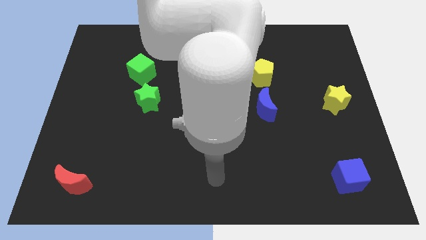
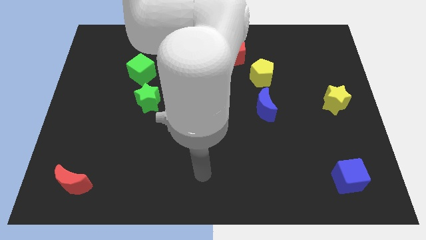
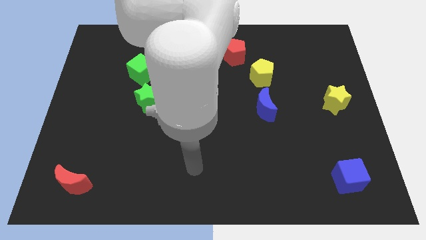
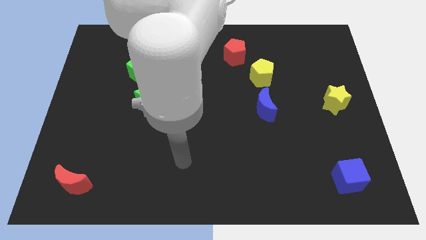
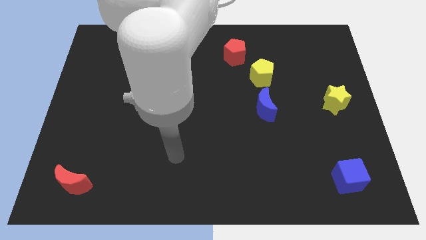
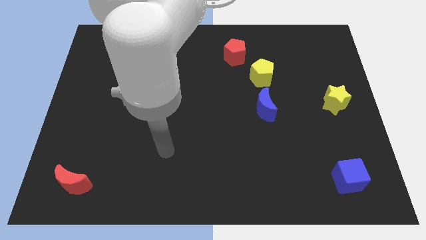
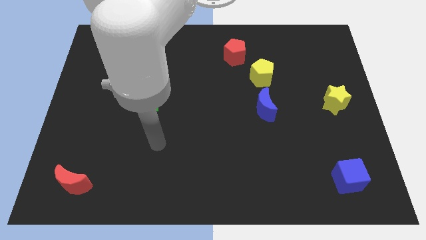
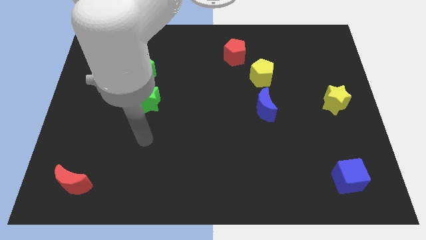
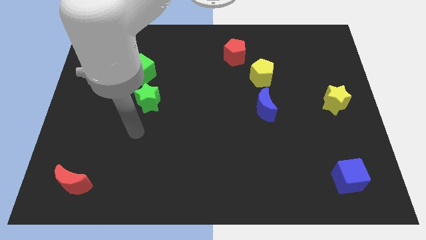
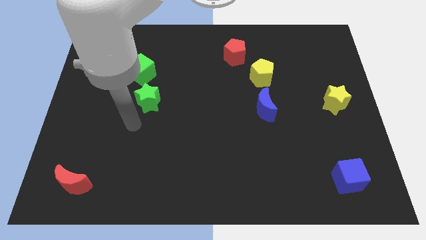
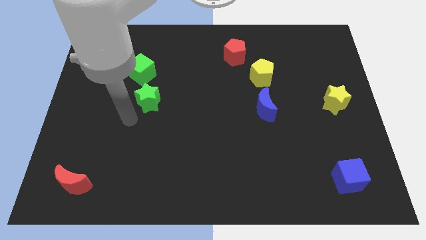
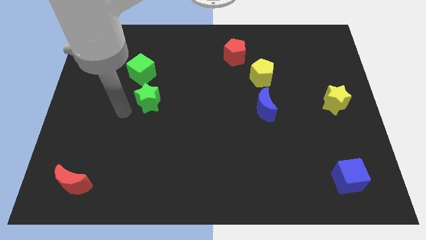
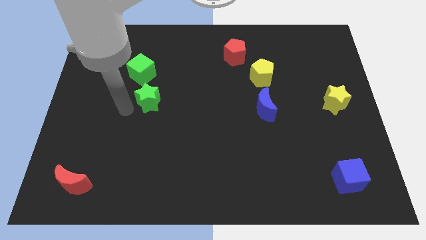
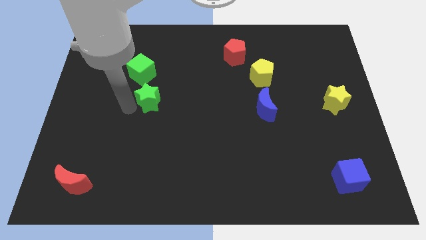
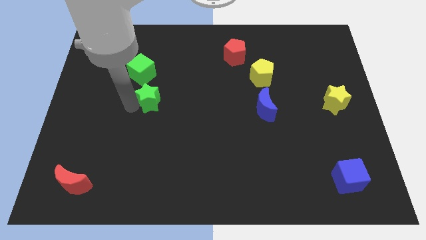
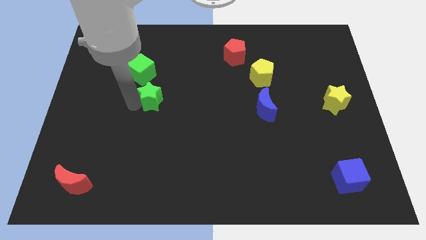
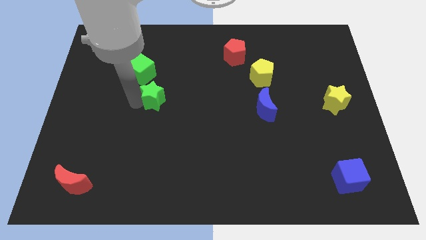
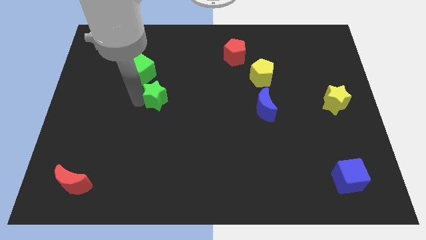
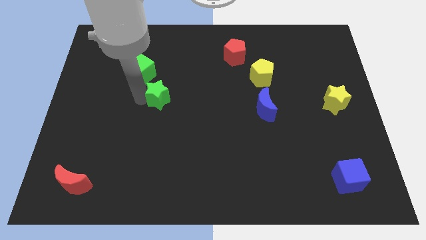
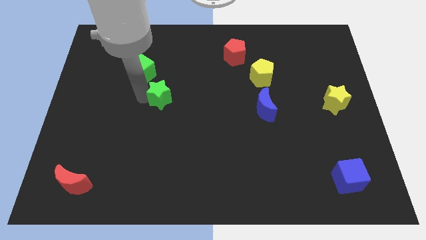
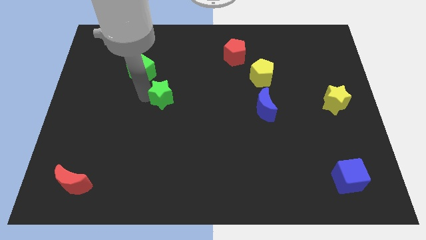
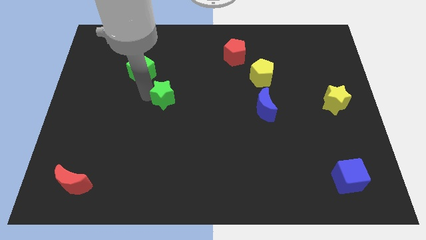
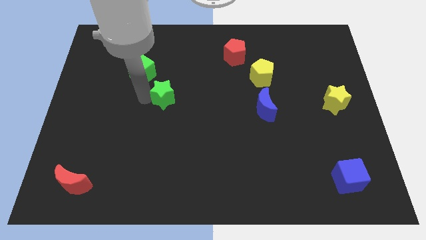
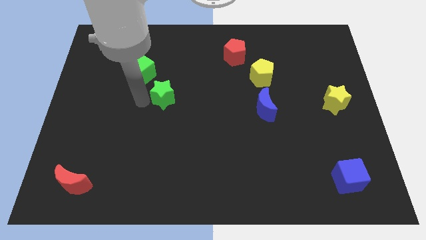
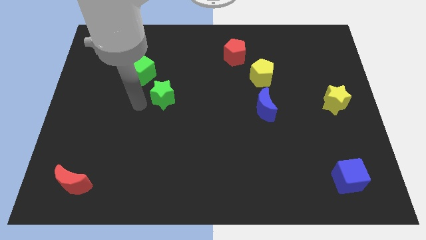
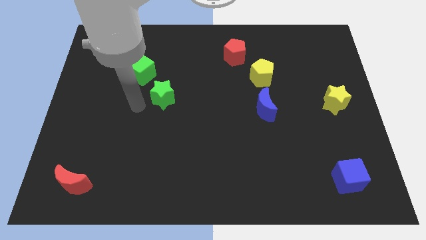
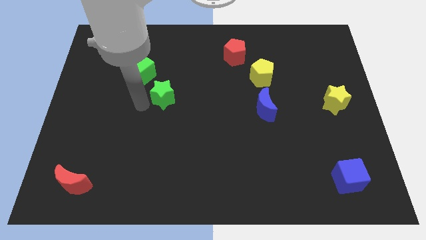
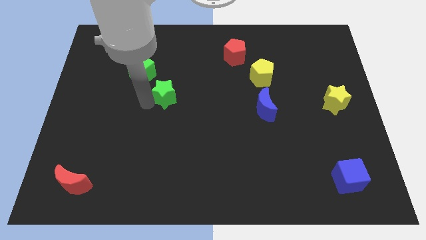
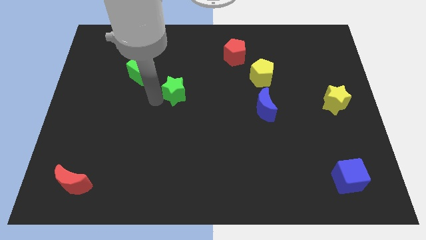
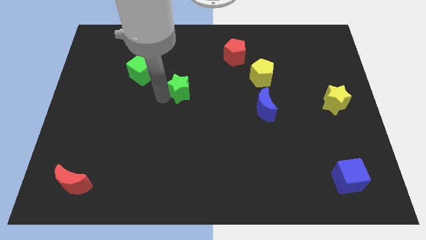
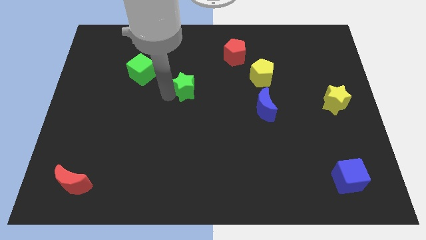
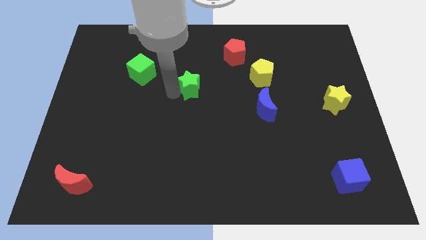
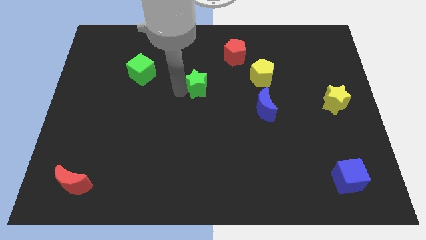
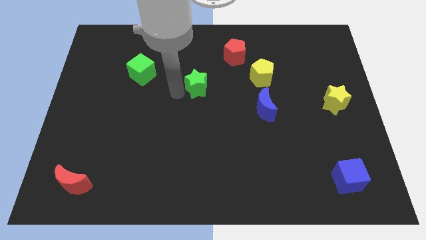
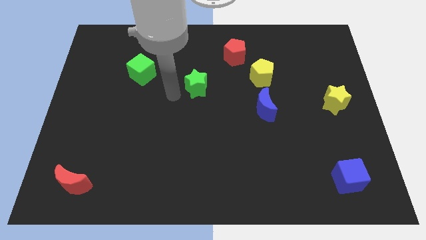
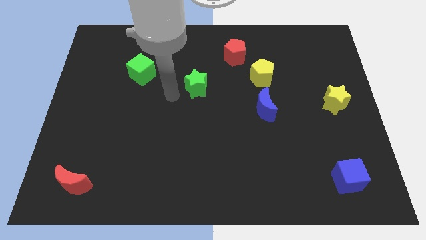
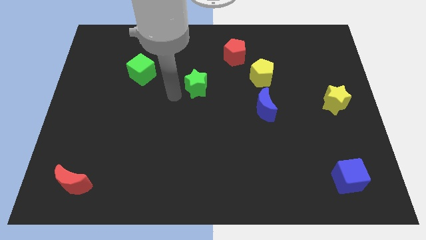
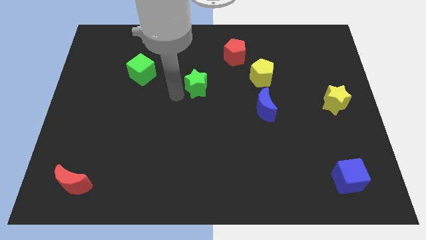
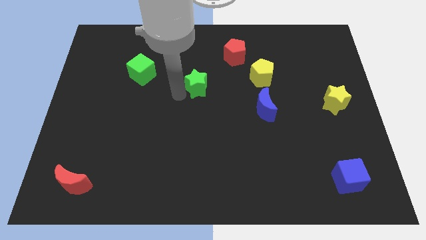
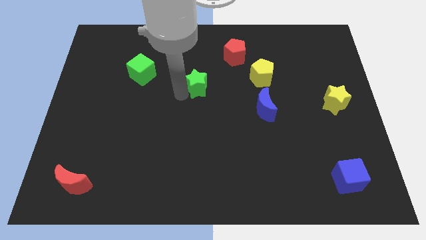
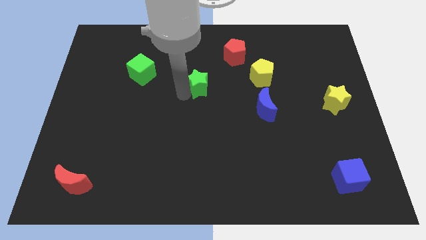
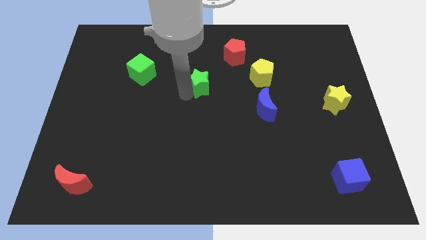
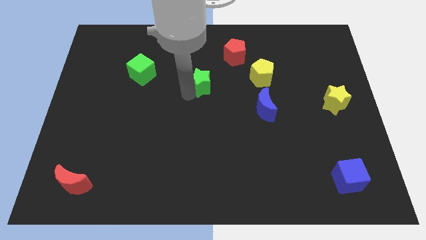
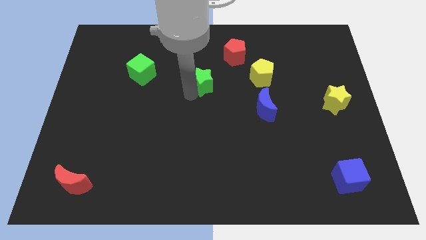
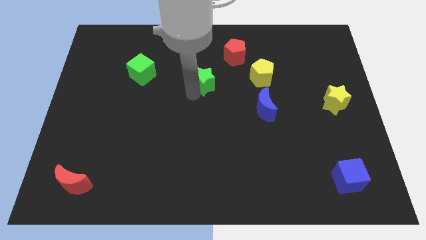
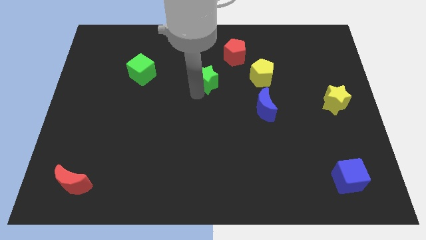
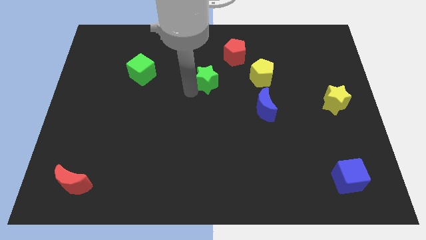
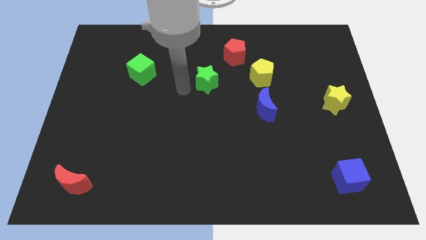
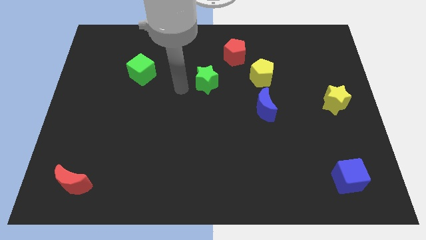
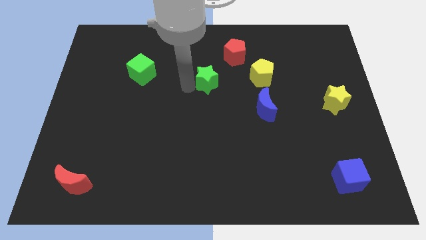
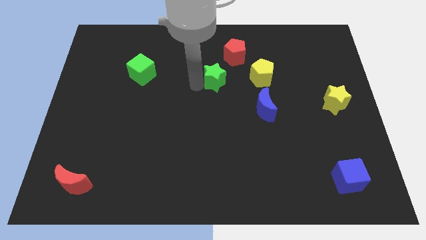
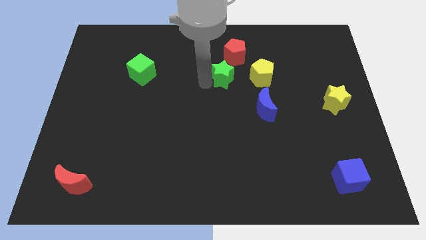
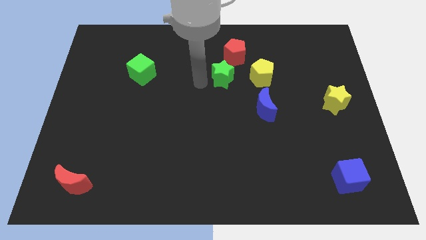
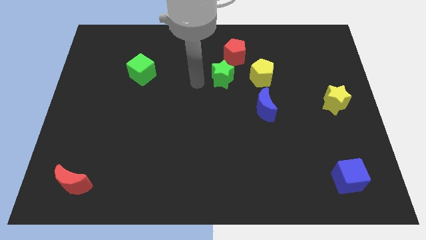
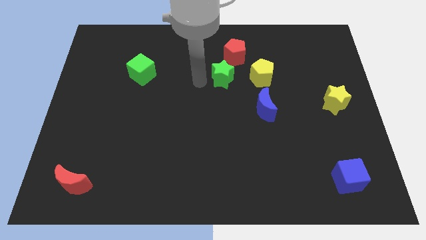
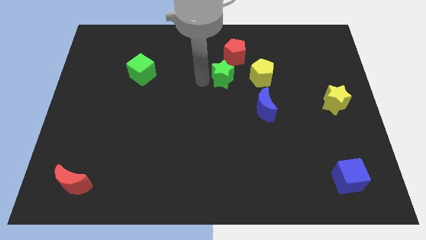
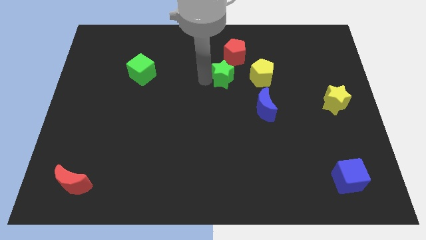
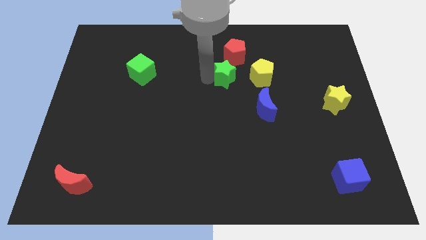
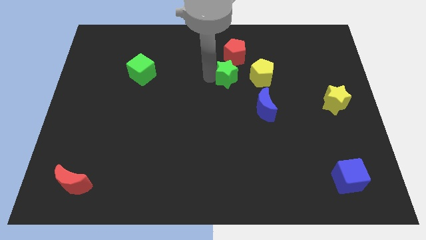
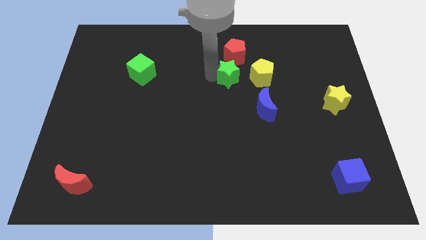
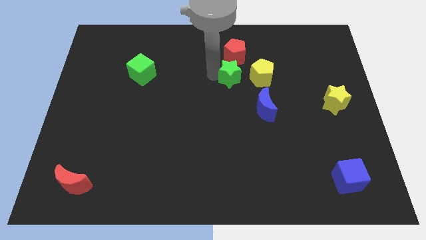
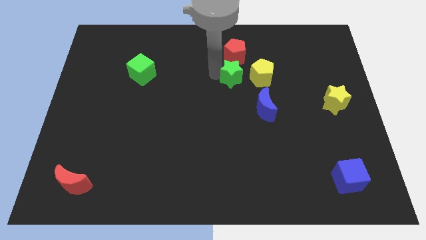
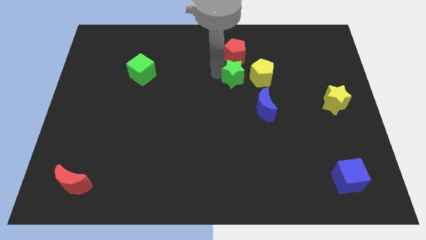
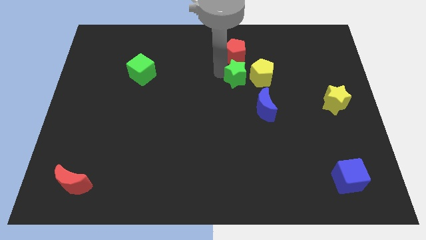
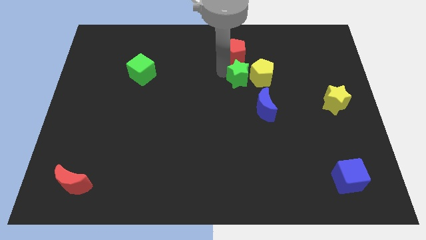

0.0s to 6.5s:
put the green star close to the yellow pentagon

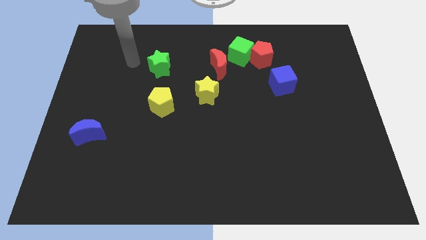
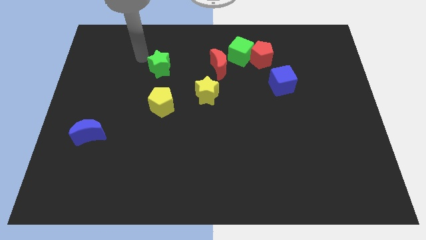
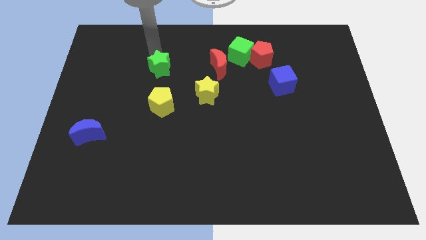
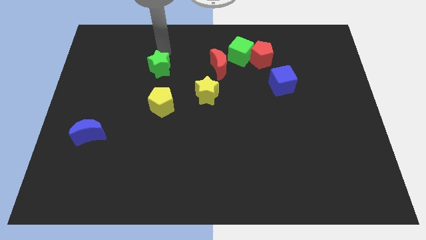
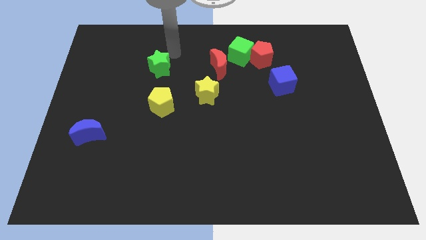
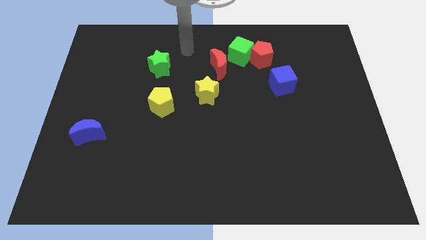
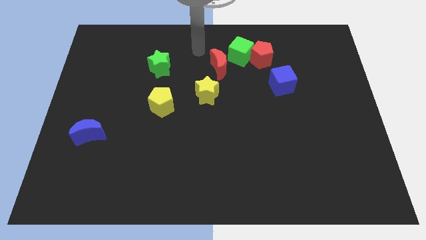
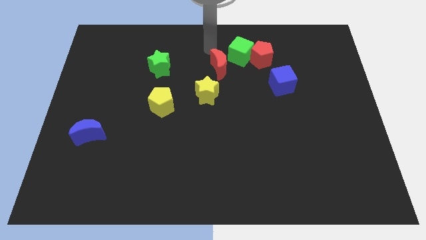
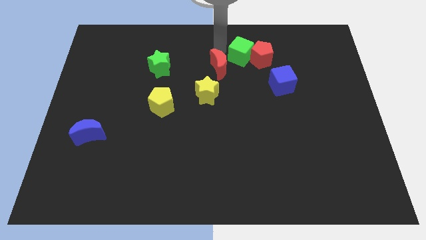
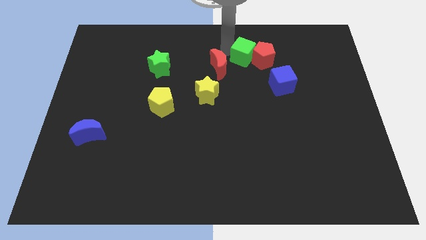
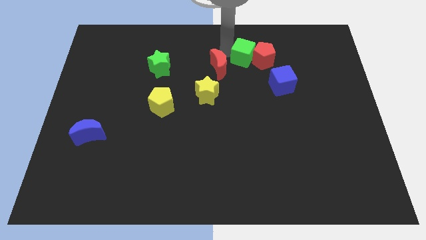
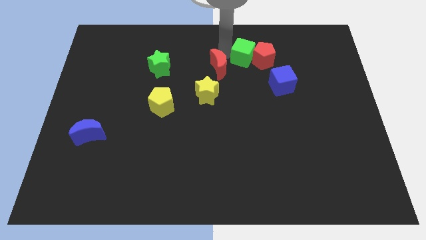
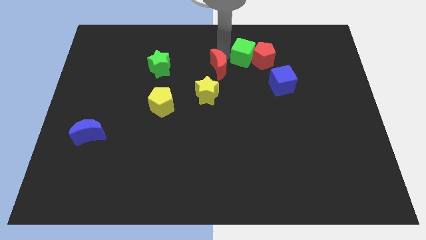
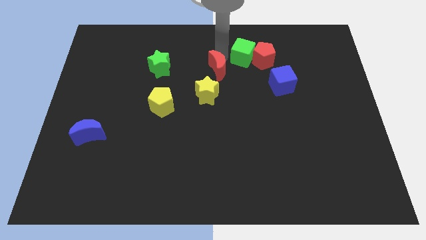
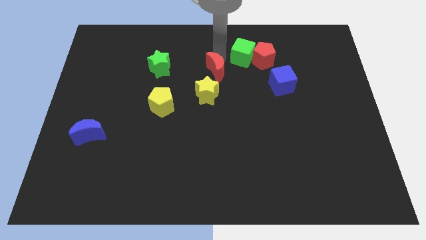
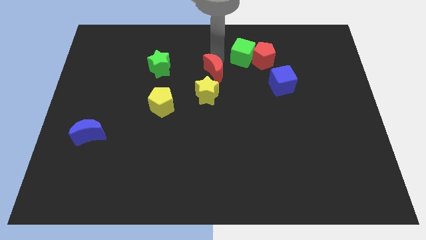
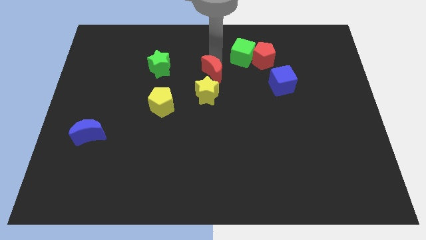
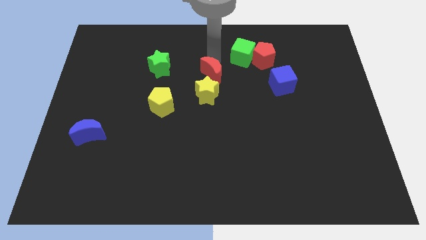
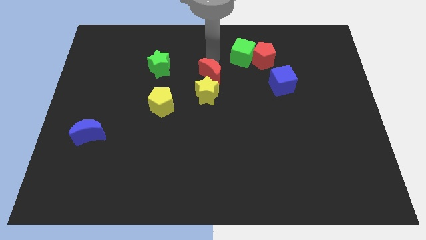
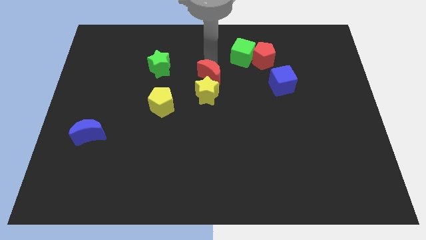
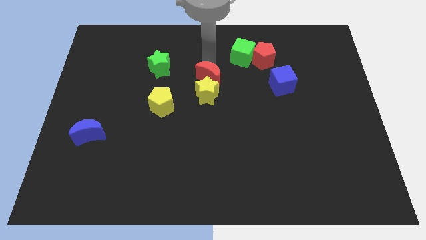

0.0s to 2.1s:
put the red moon next to the yellow star
